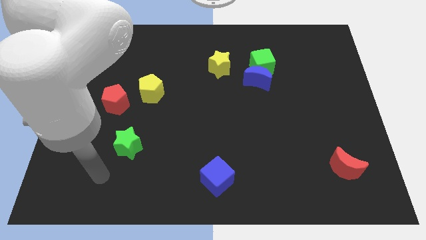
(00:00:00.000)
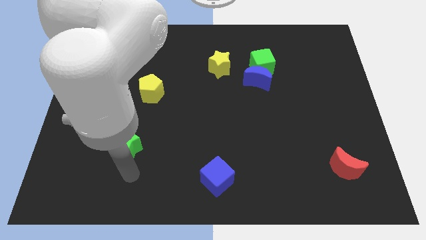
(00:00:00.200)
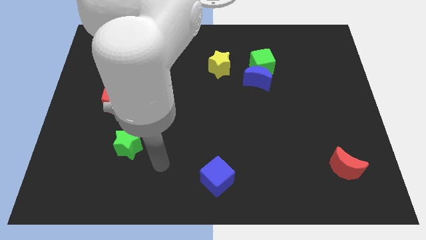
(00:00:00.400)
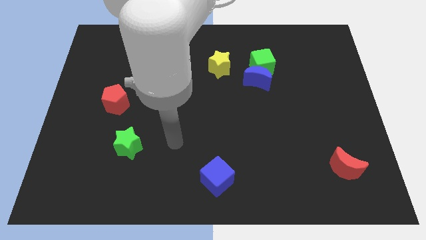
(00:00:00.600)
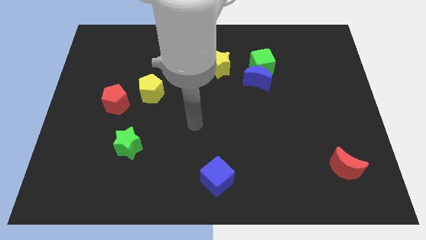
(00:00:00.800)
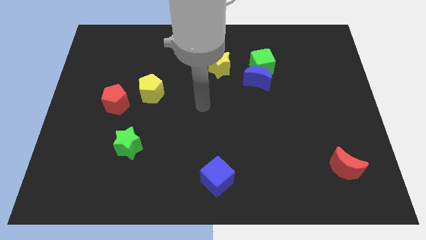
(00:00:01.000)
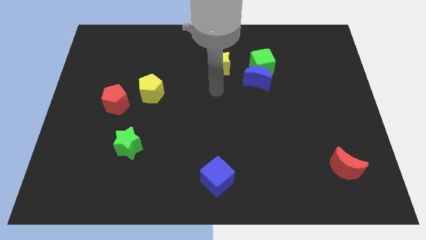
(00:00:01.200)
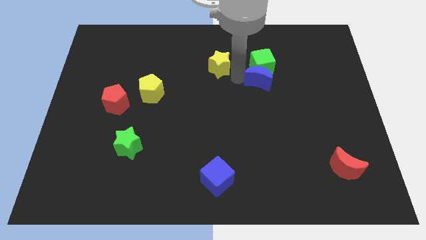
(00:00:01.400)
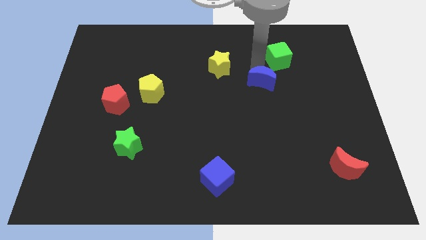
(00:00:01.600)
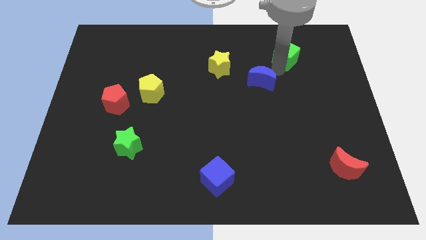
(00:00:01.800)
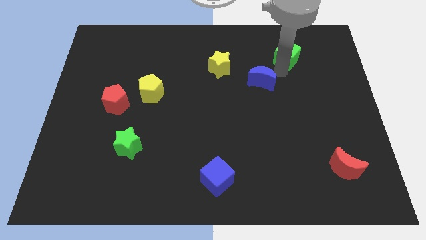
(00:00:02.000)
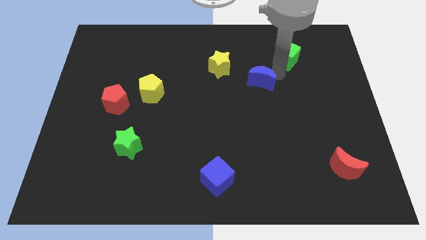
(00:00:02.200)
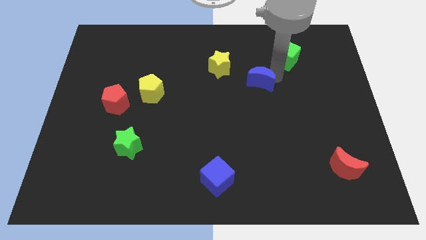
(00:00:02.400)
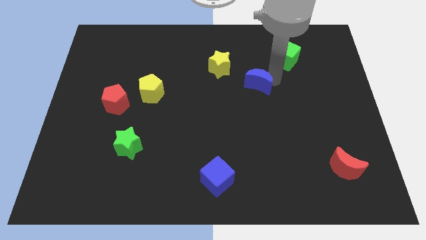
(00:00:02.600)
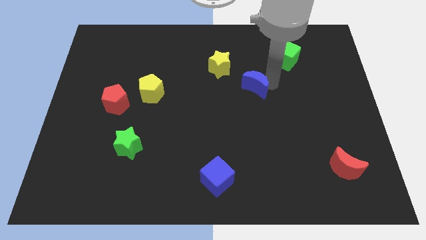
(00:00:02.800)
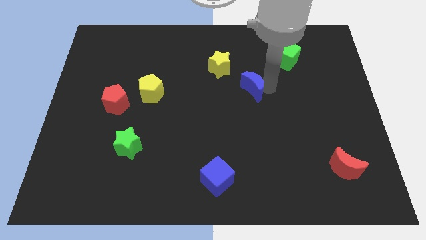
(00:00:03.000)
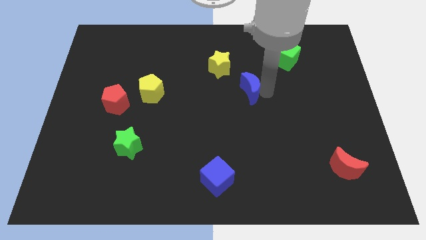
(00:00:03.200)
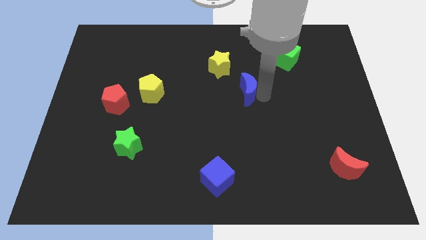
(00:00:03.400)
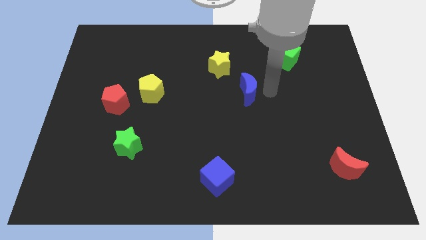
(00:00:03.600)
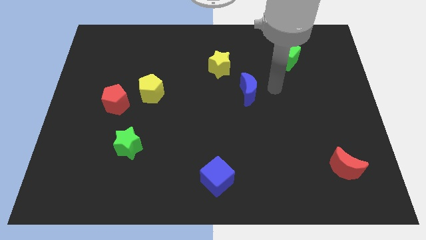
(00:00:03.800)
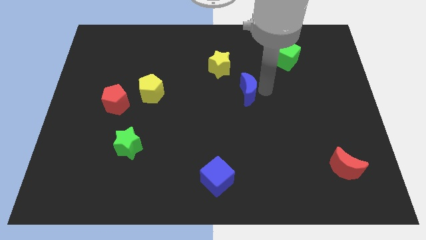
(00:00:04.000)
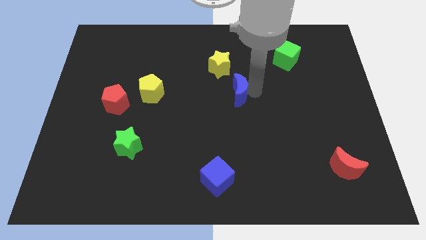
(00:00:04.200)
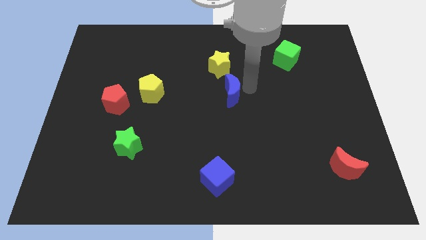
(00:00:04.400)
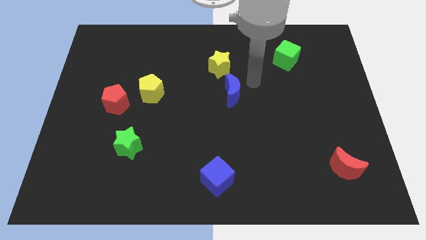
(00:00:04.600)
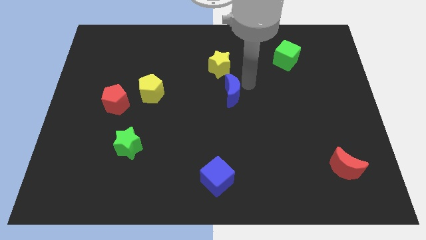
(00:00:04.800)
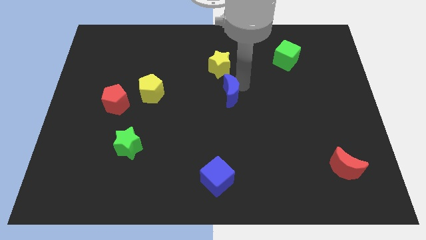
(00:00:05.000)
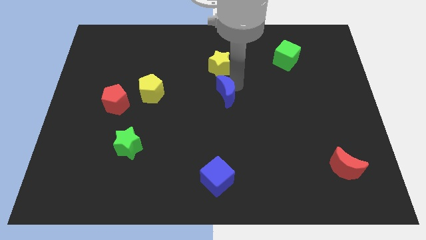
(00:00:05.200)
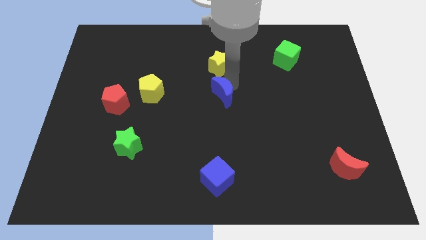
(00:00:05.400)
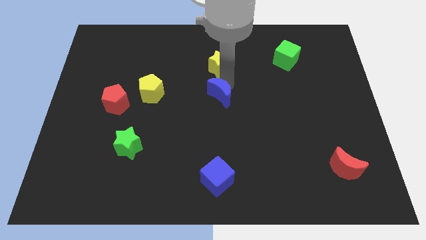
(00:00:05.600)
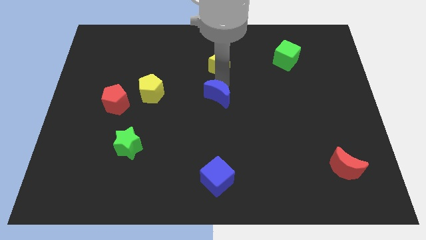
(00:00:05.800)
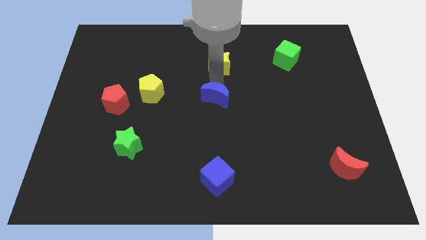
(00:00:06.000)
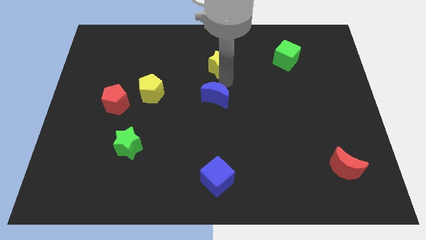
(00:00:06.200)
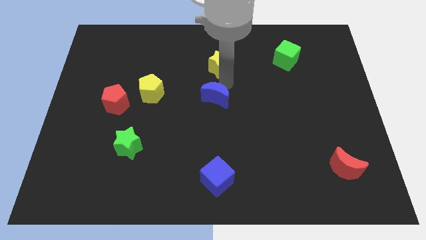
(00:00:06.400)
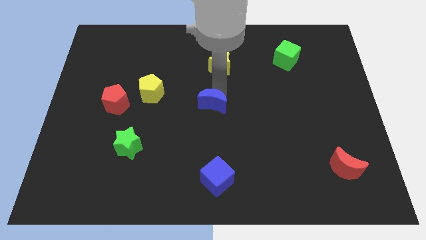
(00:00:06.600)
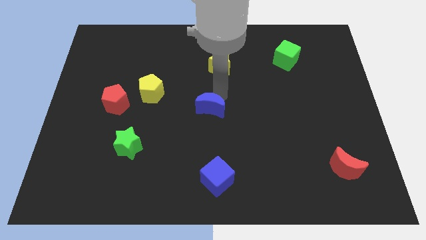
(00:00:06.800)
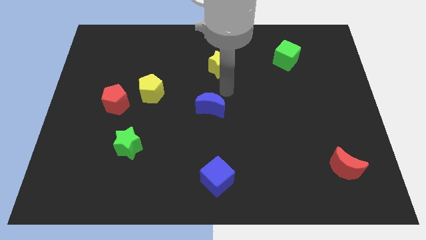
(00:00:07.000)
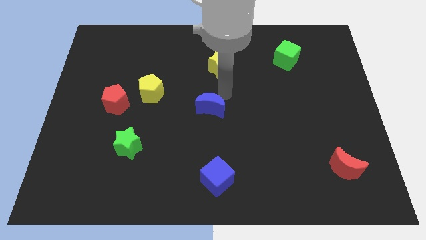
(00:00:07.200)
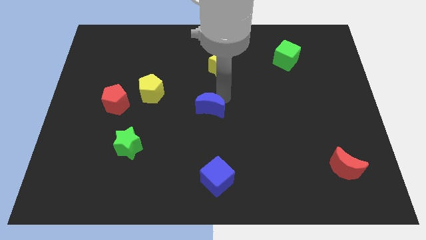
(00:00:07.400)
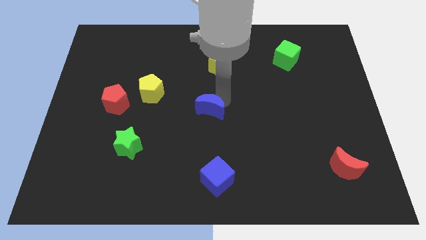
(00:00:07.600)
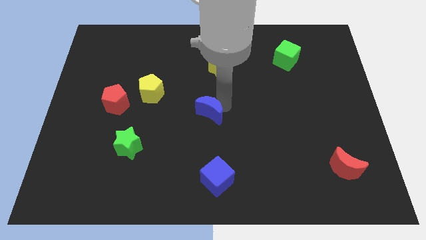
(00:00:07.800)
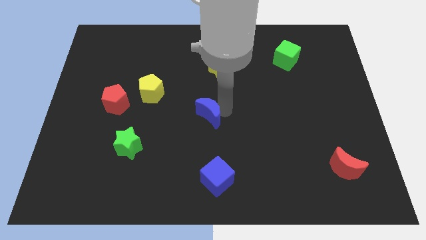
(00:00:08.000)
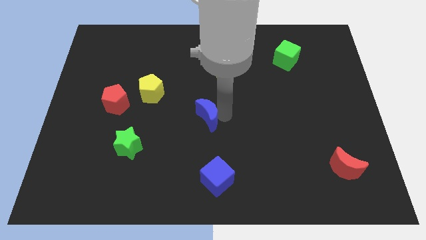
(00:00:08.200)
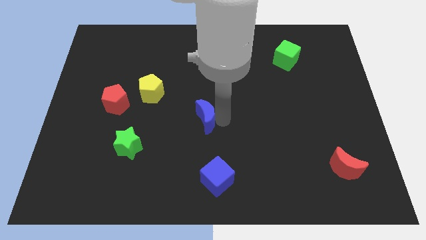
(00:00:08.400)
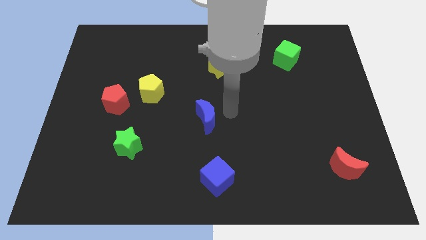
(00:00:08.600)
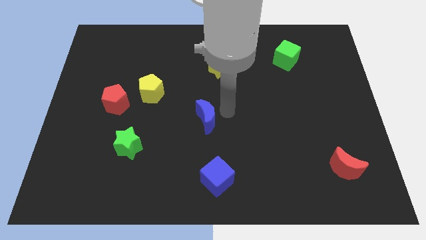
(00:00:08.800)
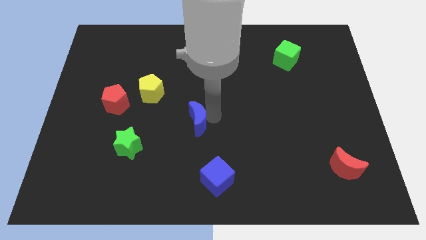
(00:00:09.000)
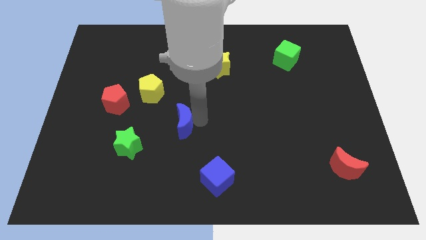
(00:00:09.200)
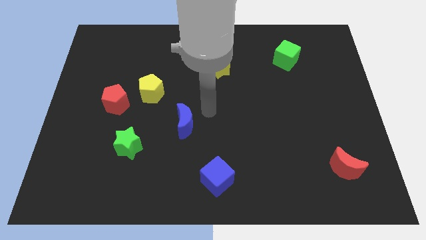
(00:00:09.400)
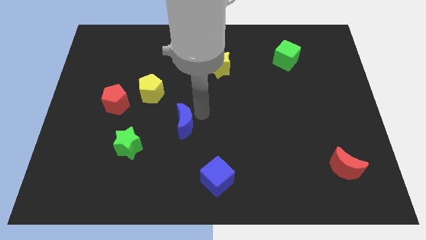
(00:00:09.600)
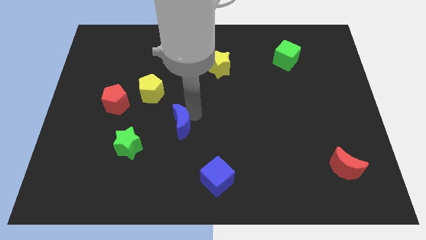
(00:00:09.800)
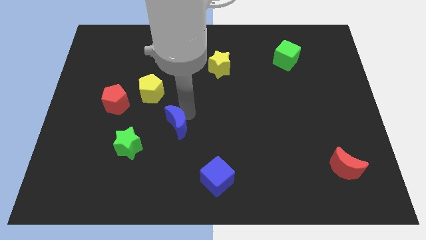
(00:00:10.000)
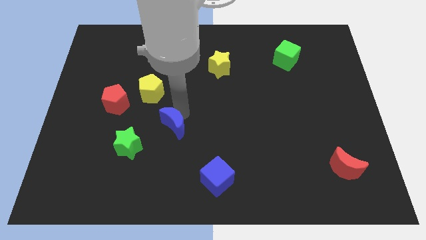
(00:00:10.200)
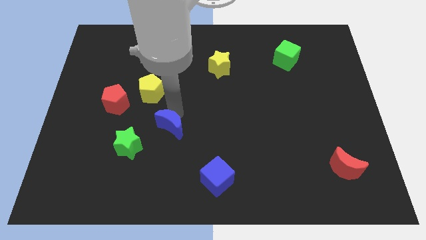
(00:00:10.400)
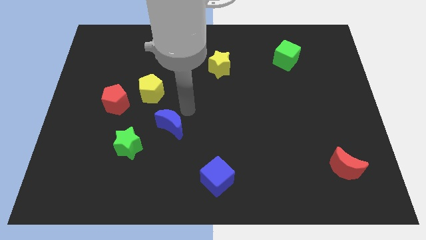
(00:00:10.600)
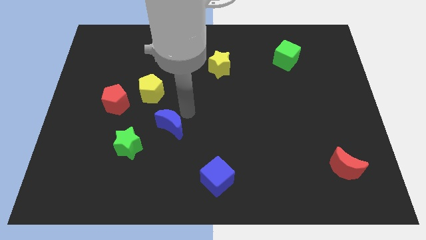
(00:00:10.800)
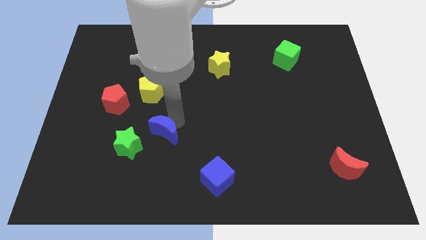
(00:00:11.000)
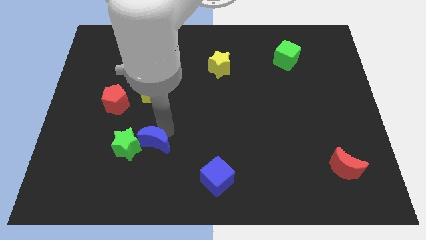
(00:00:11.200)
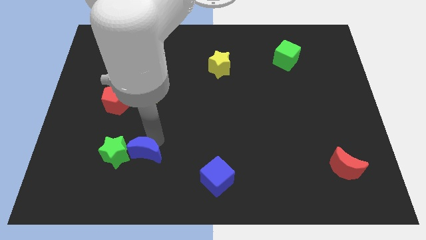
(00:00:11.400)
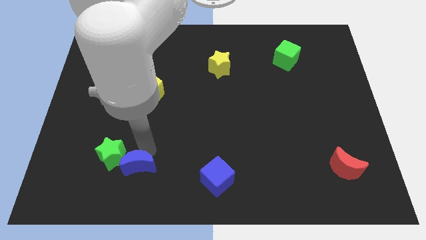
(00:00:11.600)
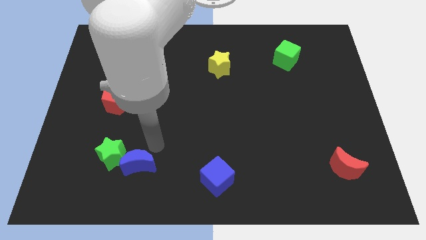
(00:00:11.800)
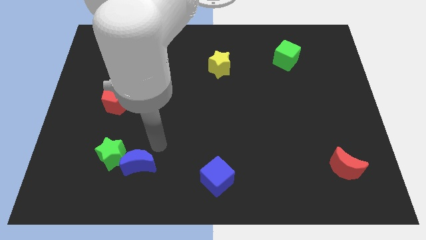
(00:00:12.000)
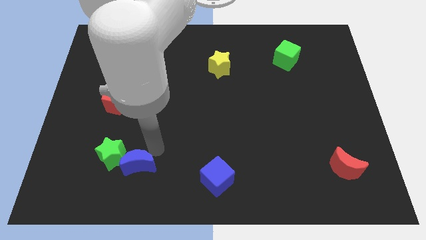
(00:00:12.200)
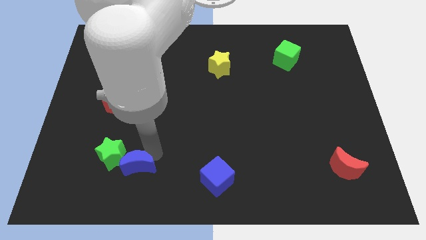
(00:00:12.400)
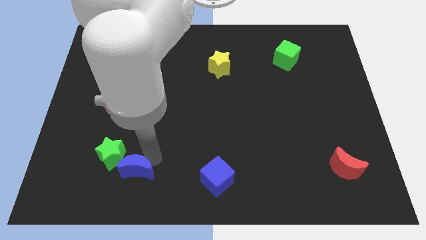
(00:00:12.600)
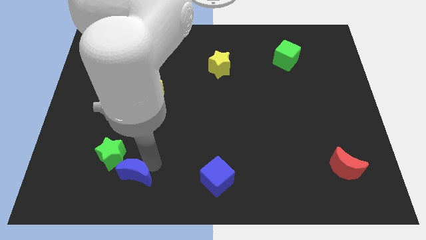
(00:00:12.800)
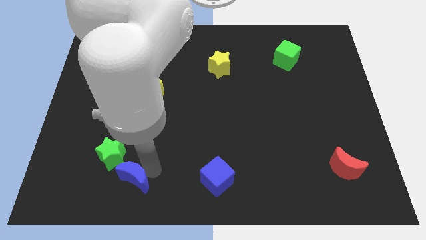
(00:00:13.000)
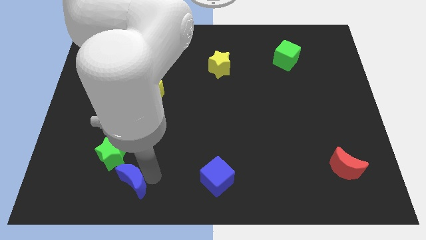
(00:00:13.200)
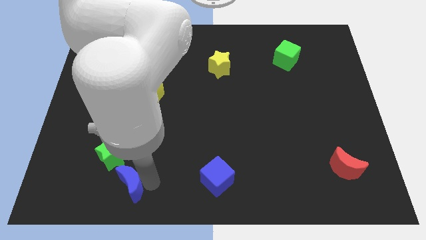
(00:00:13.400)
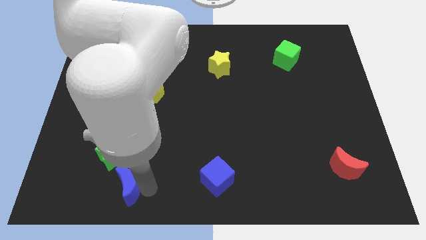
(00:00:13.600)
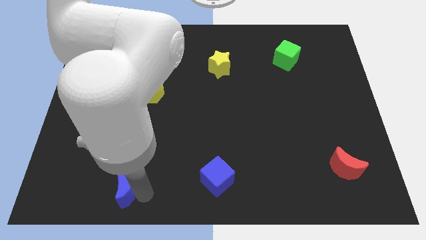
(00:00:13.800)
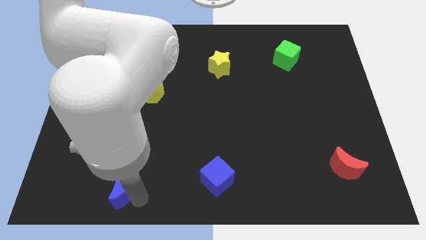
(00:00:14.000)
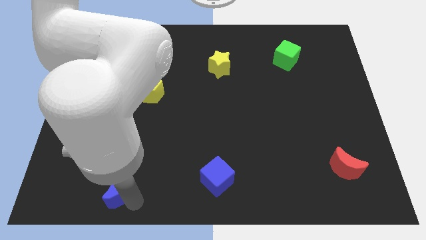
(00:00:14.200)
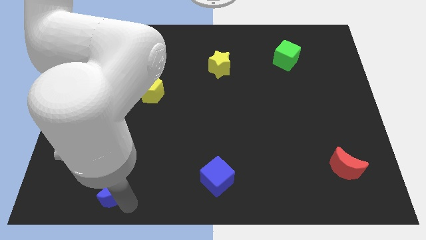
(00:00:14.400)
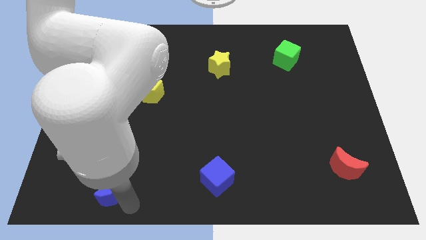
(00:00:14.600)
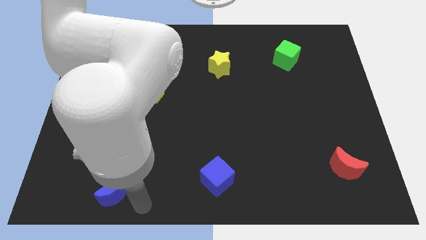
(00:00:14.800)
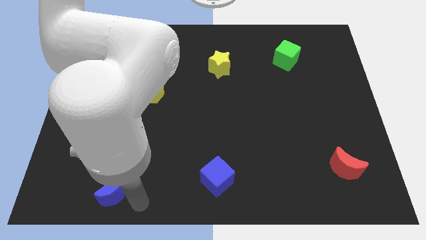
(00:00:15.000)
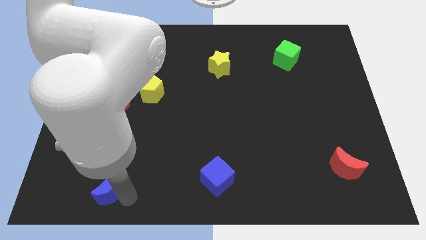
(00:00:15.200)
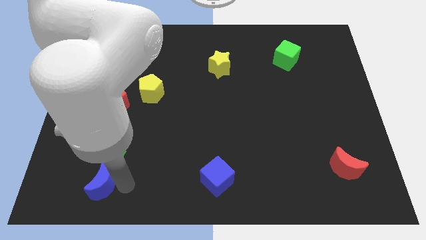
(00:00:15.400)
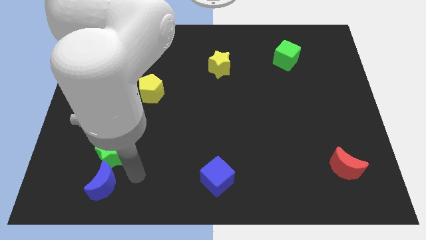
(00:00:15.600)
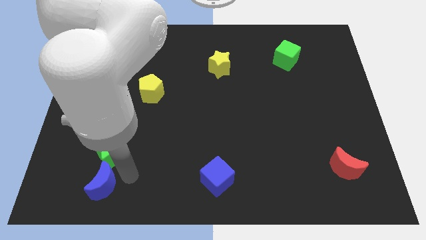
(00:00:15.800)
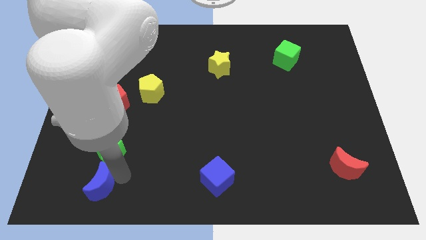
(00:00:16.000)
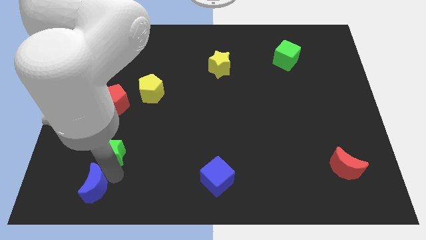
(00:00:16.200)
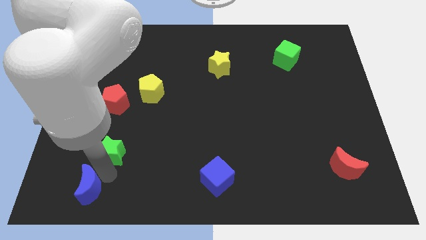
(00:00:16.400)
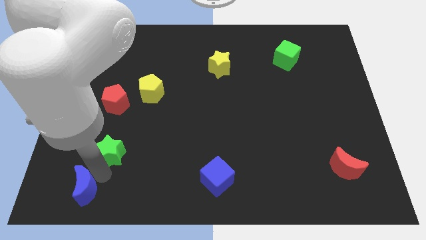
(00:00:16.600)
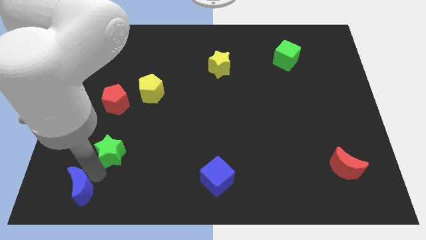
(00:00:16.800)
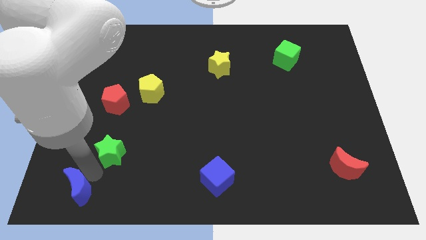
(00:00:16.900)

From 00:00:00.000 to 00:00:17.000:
move the blue moon to the bottom left
